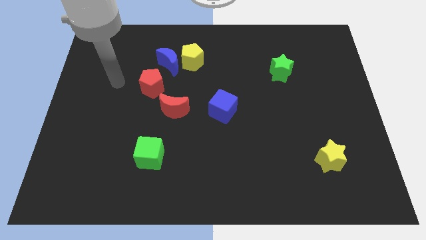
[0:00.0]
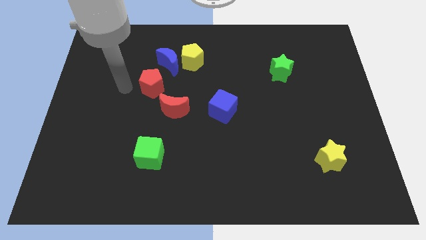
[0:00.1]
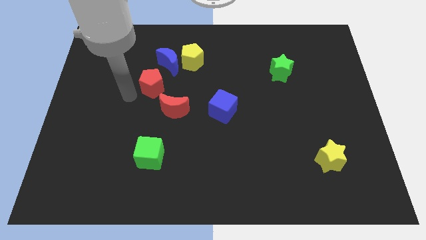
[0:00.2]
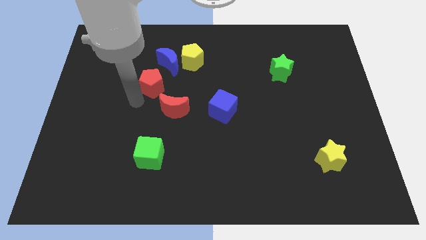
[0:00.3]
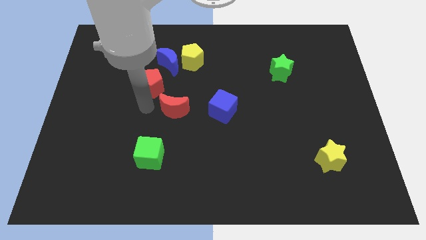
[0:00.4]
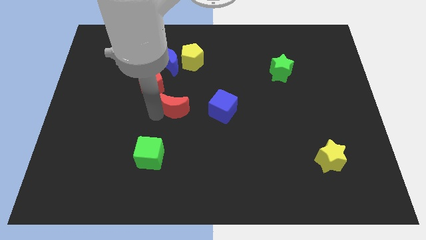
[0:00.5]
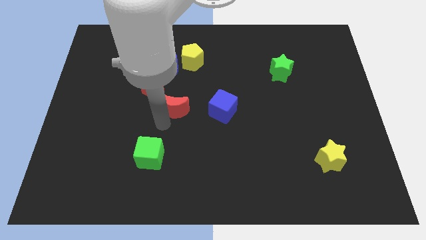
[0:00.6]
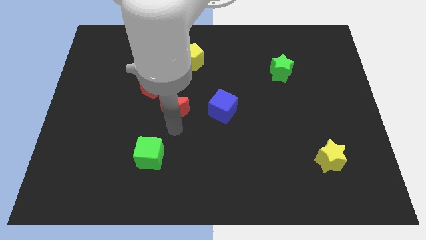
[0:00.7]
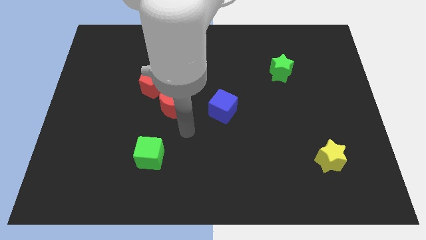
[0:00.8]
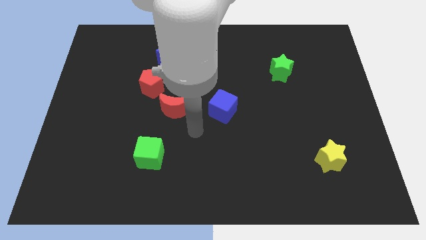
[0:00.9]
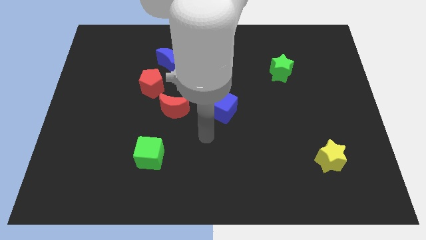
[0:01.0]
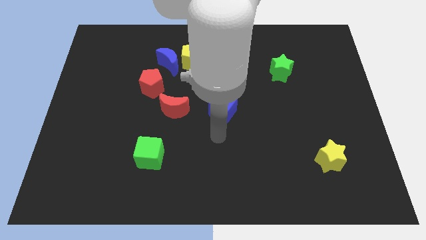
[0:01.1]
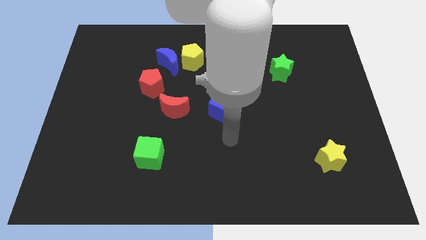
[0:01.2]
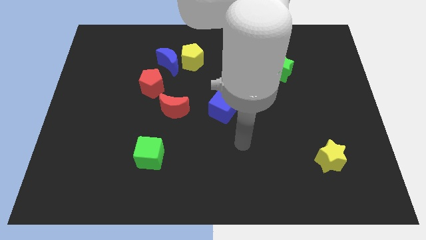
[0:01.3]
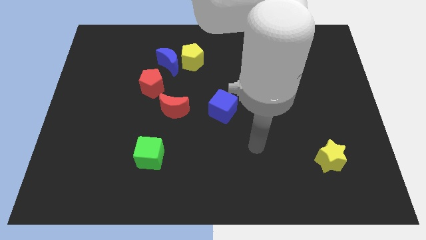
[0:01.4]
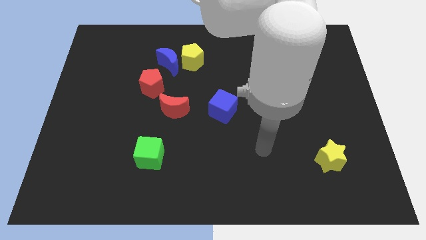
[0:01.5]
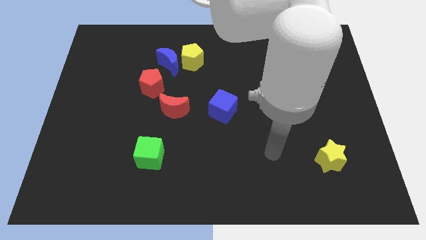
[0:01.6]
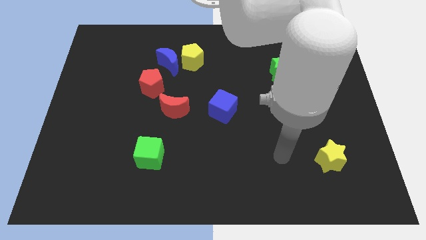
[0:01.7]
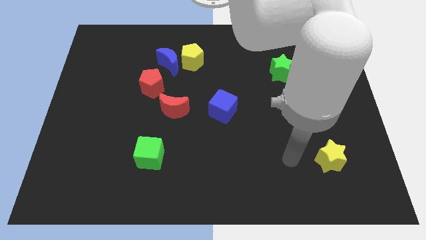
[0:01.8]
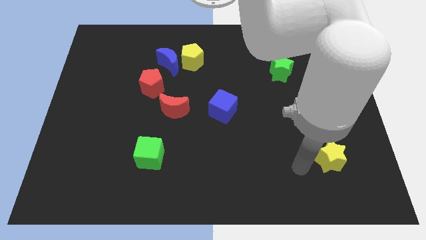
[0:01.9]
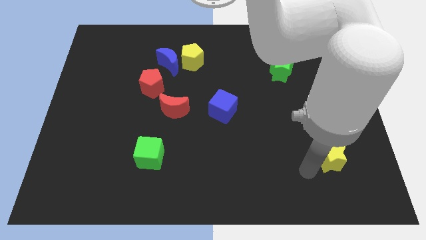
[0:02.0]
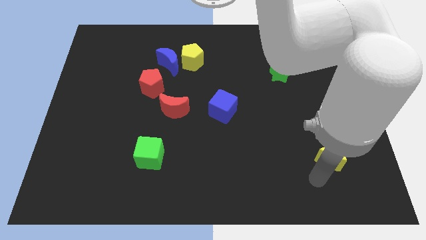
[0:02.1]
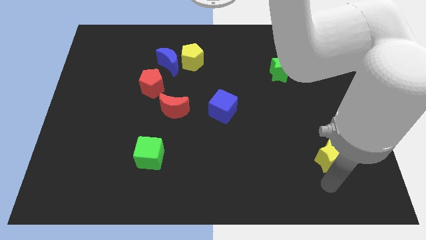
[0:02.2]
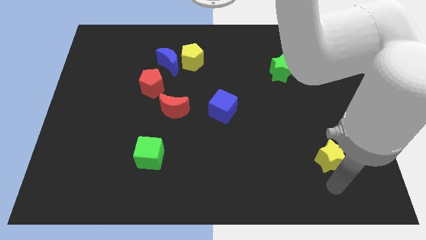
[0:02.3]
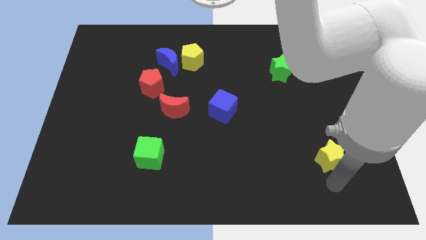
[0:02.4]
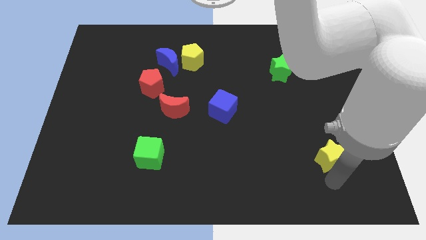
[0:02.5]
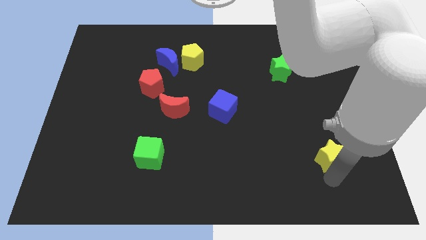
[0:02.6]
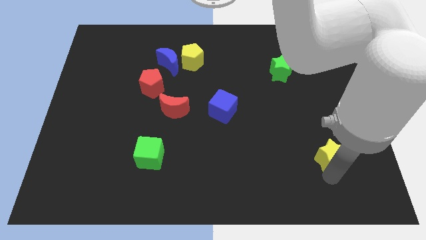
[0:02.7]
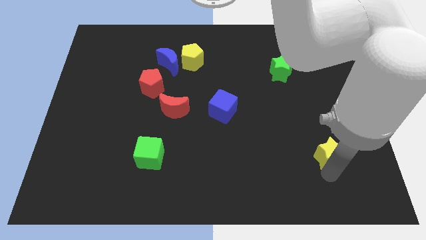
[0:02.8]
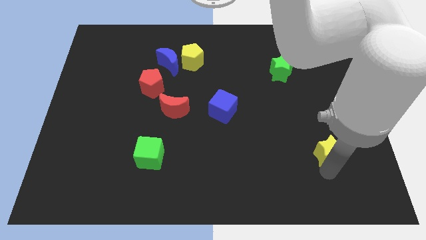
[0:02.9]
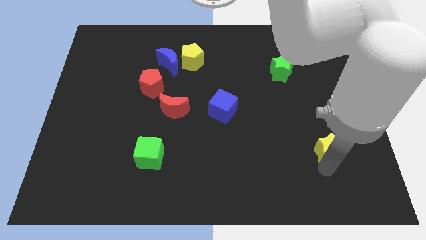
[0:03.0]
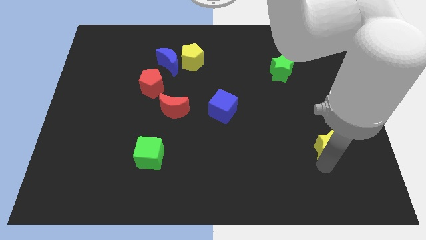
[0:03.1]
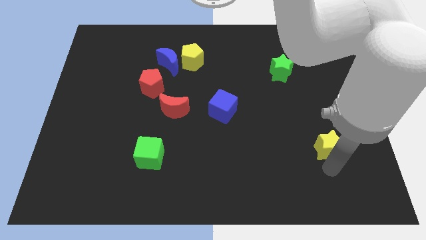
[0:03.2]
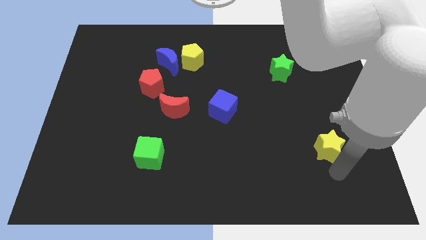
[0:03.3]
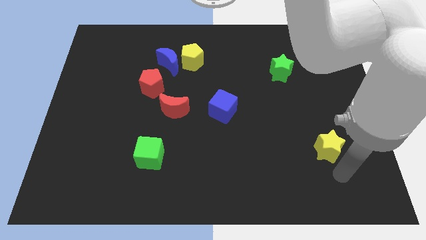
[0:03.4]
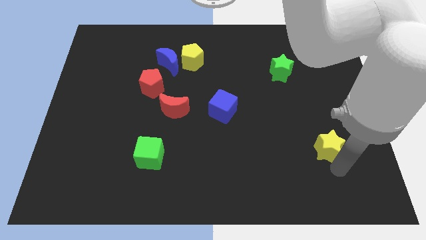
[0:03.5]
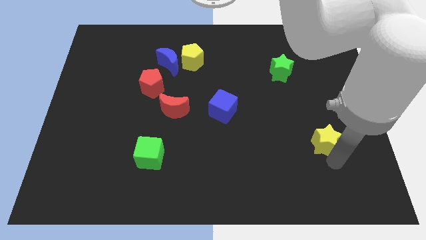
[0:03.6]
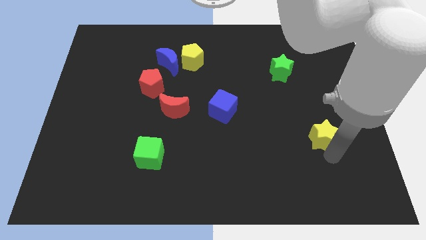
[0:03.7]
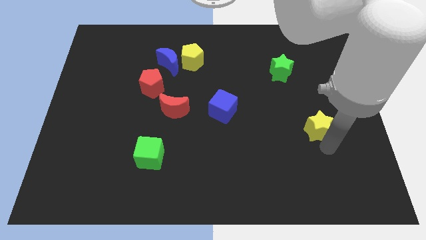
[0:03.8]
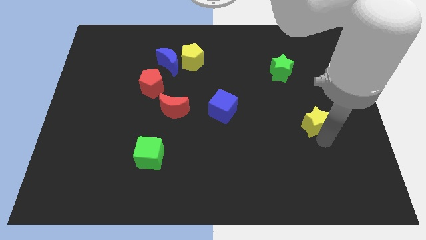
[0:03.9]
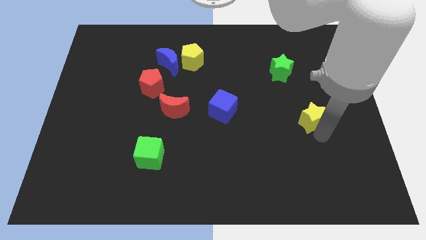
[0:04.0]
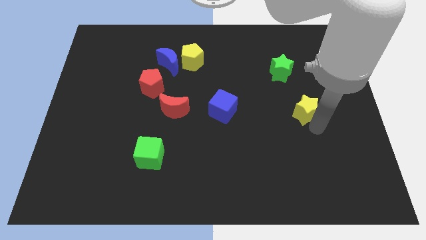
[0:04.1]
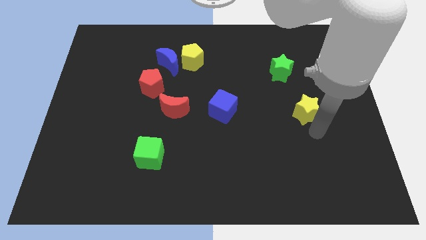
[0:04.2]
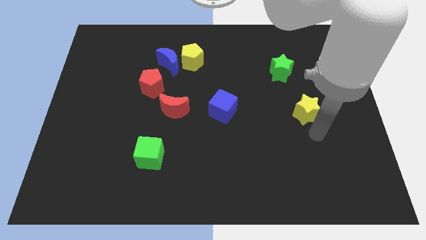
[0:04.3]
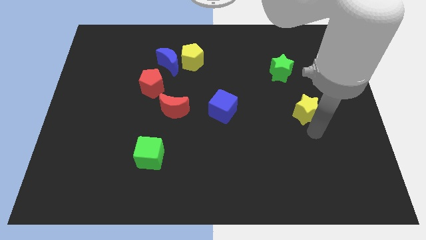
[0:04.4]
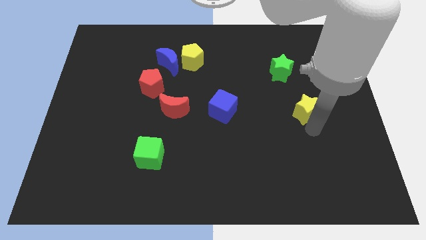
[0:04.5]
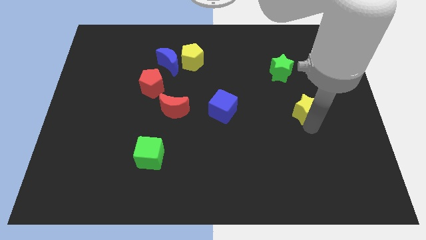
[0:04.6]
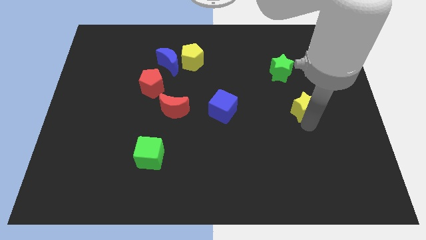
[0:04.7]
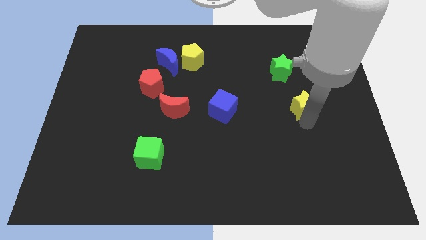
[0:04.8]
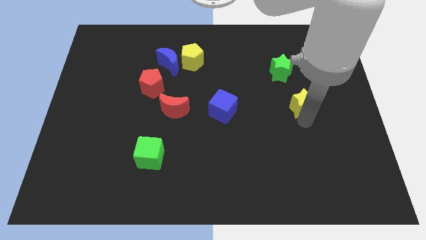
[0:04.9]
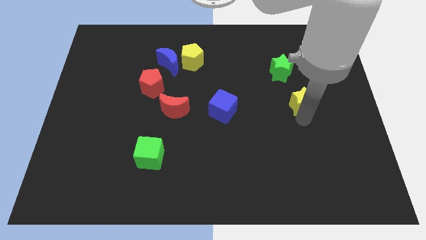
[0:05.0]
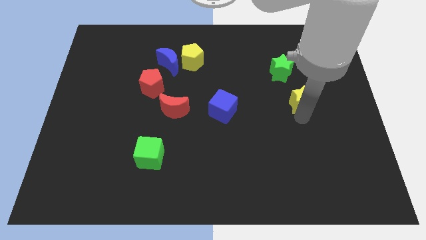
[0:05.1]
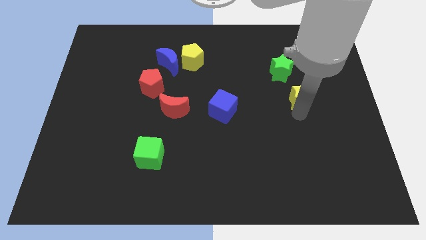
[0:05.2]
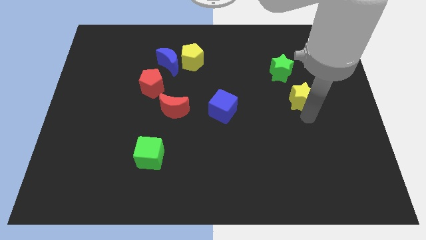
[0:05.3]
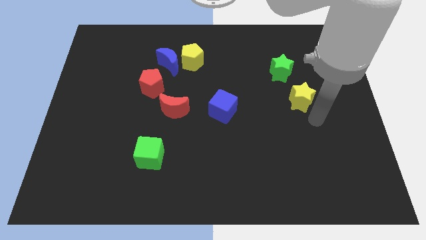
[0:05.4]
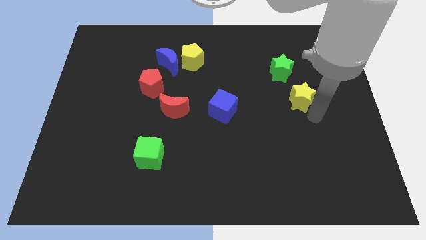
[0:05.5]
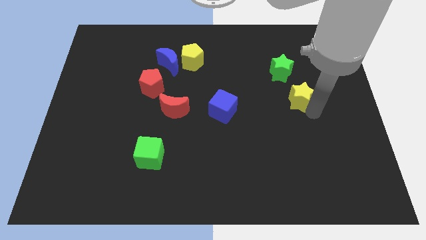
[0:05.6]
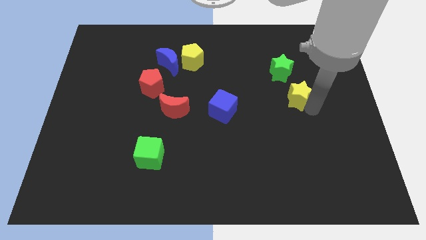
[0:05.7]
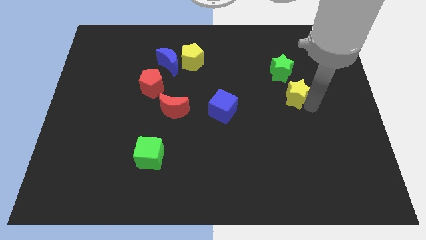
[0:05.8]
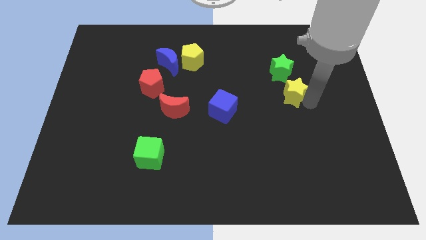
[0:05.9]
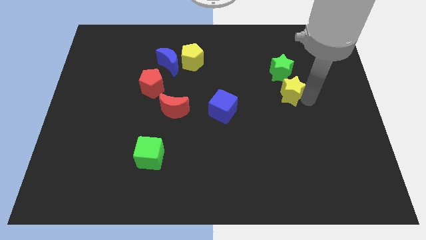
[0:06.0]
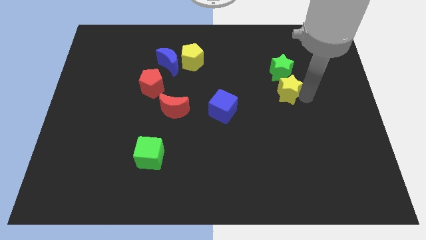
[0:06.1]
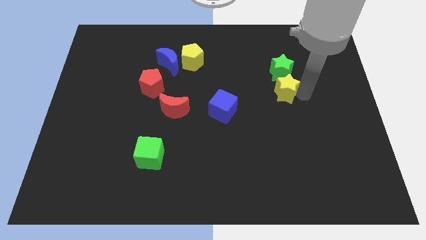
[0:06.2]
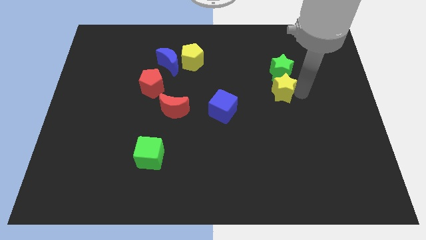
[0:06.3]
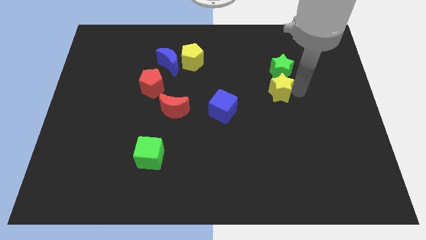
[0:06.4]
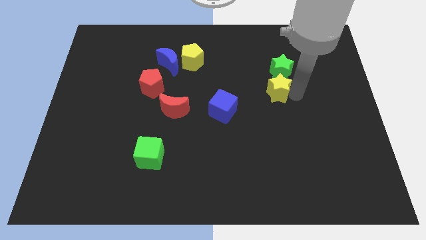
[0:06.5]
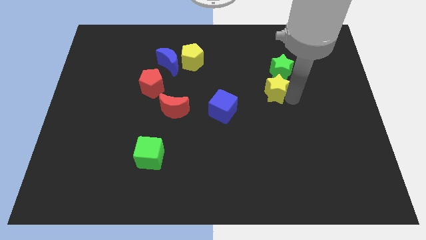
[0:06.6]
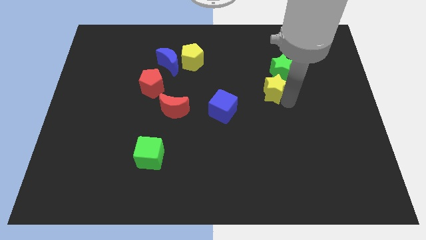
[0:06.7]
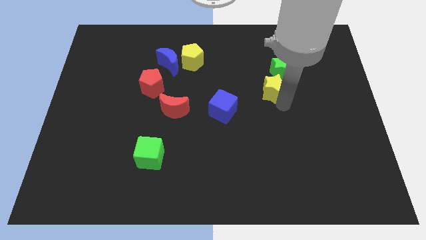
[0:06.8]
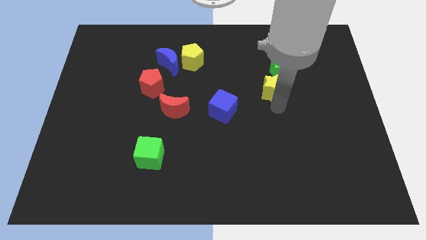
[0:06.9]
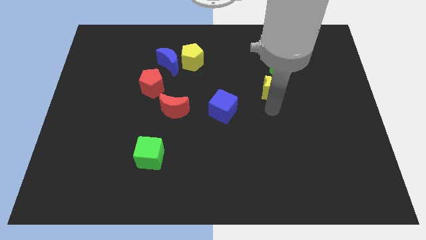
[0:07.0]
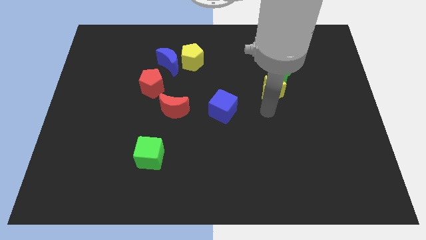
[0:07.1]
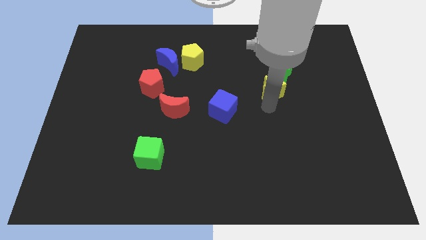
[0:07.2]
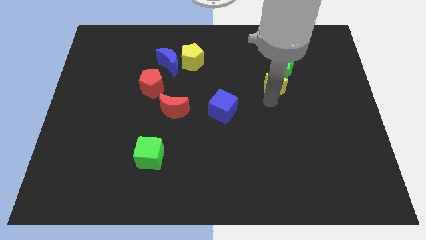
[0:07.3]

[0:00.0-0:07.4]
put the yellow star close to the green star

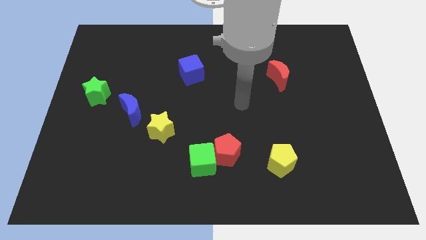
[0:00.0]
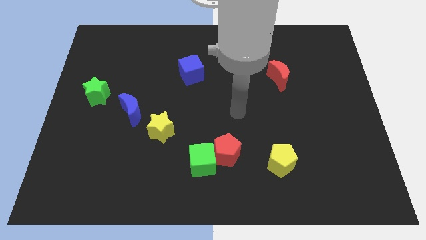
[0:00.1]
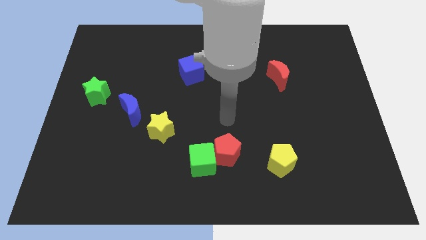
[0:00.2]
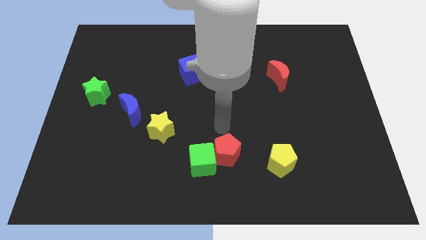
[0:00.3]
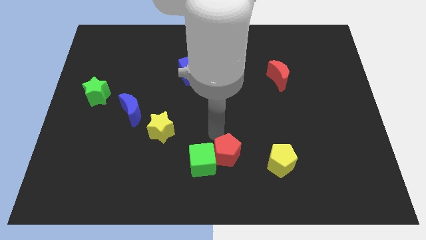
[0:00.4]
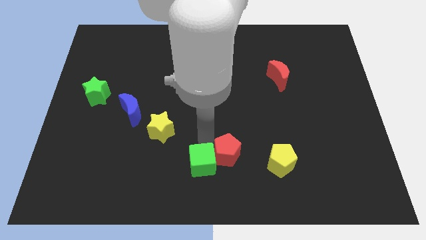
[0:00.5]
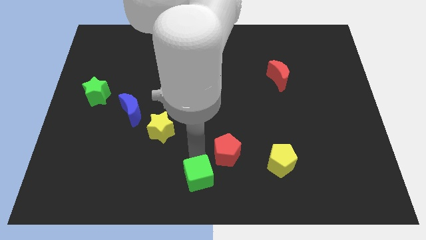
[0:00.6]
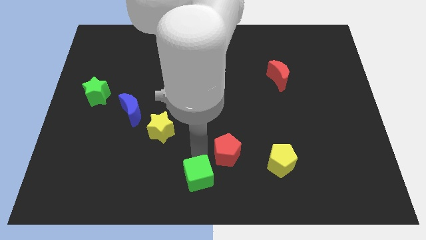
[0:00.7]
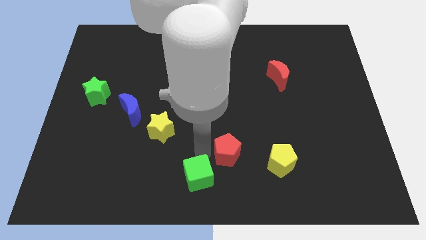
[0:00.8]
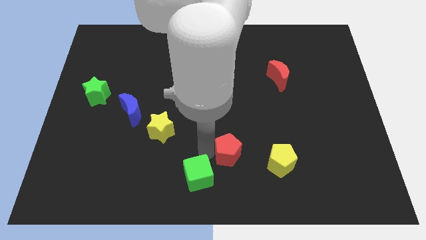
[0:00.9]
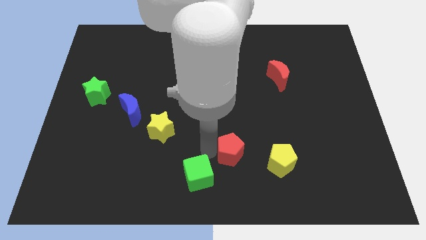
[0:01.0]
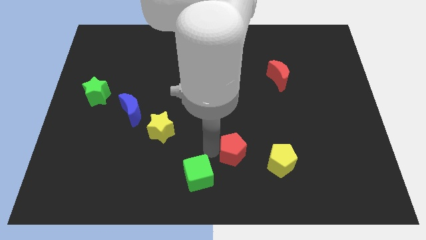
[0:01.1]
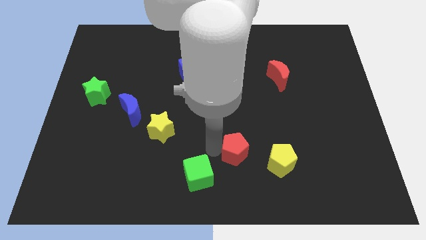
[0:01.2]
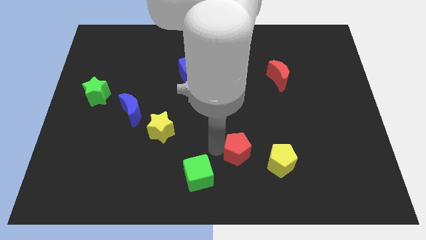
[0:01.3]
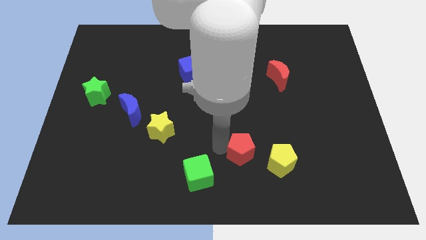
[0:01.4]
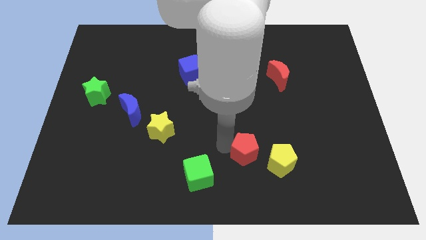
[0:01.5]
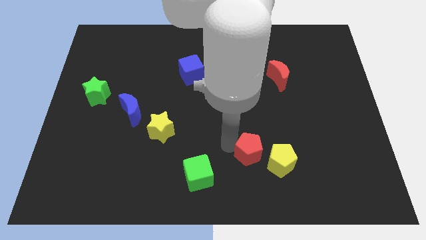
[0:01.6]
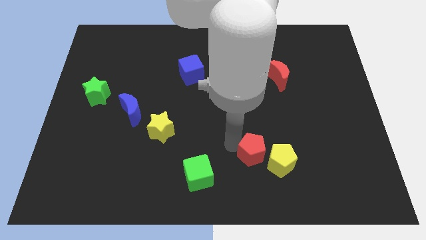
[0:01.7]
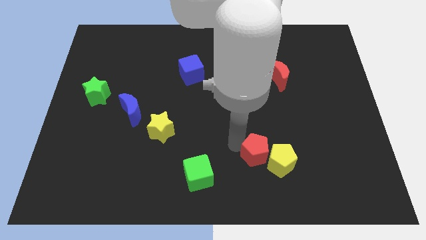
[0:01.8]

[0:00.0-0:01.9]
slide the red pentagon towards the yellow pentagon
